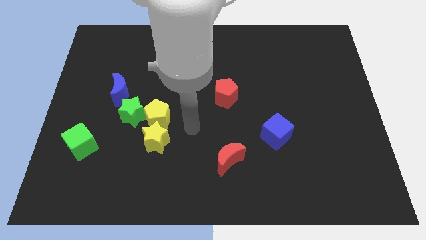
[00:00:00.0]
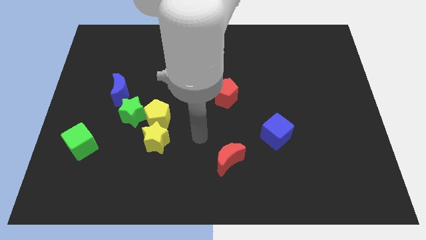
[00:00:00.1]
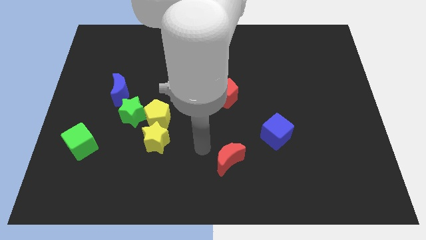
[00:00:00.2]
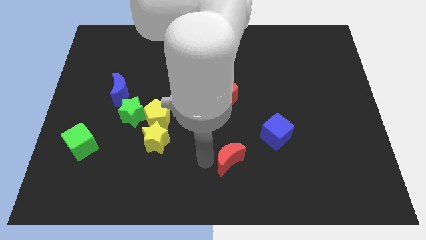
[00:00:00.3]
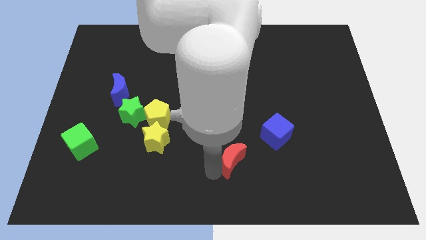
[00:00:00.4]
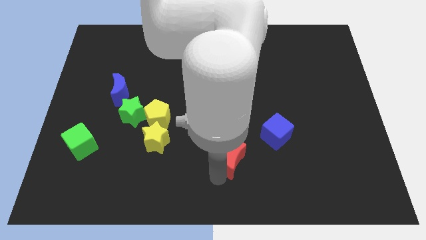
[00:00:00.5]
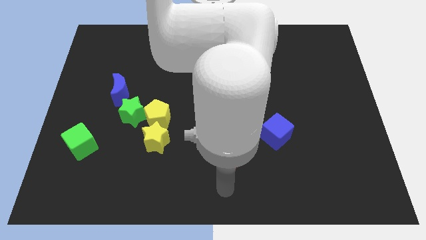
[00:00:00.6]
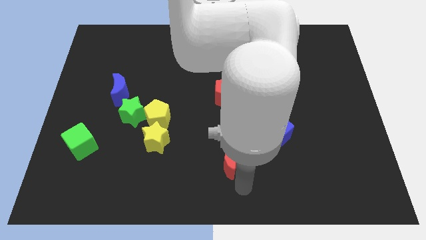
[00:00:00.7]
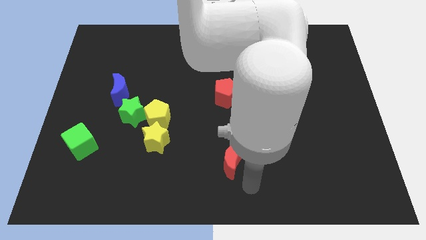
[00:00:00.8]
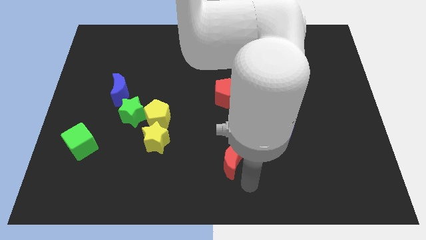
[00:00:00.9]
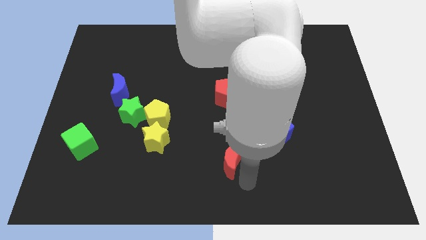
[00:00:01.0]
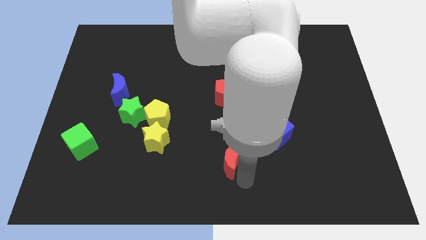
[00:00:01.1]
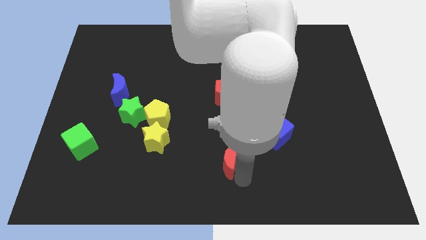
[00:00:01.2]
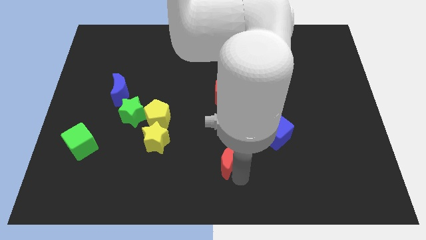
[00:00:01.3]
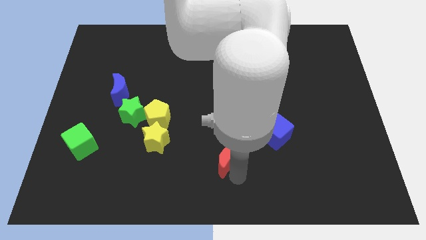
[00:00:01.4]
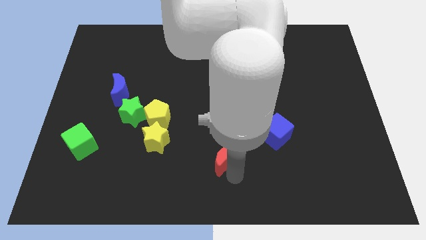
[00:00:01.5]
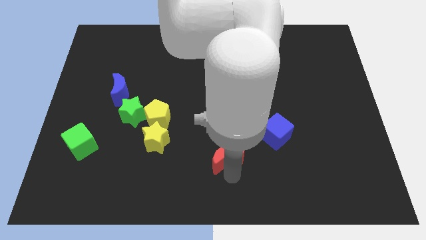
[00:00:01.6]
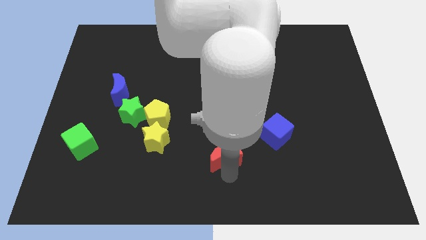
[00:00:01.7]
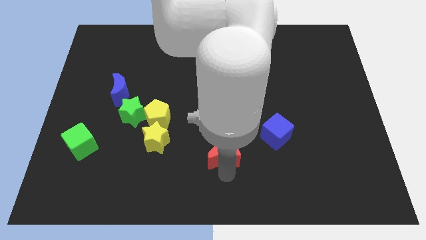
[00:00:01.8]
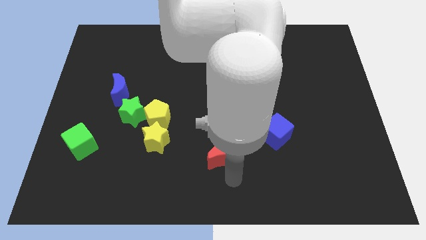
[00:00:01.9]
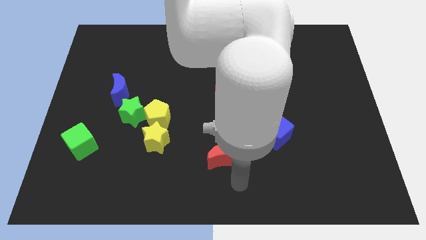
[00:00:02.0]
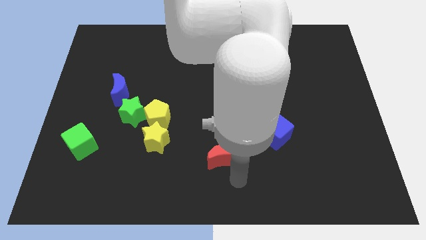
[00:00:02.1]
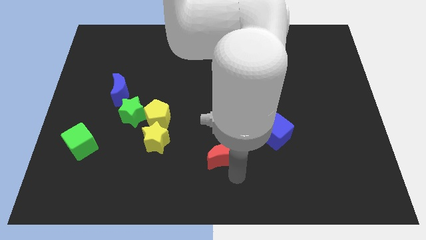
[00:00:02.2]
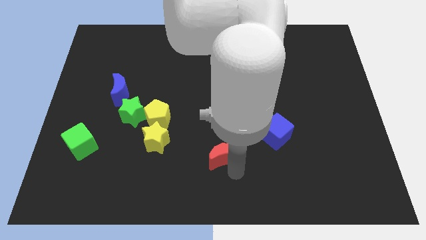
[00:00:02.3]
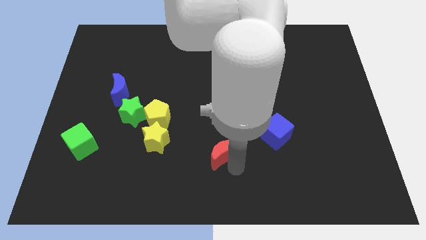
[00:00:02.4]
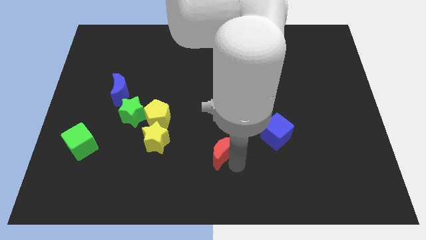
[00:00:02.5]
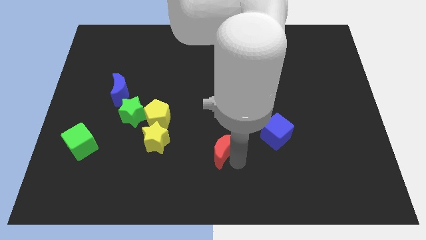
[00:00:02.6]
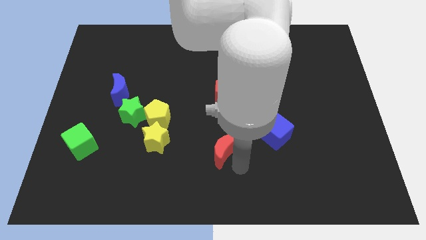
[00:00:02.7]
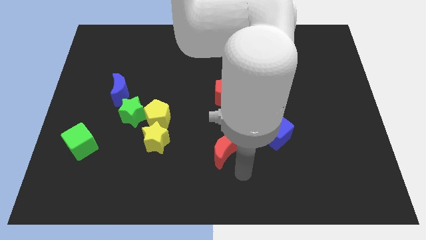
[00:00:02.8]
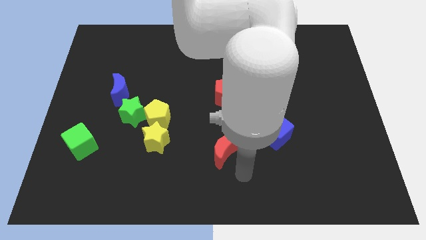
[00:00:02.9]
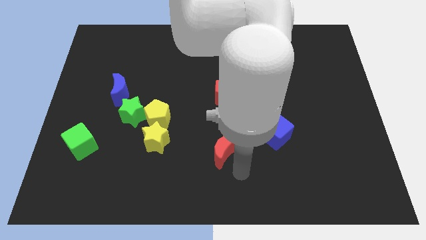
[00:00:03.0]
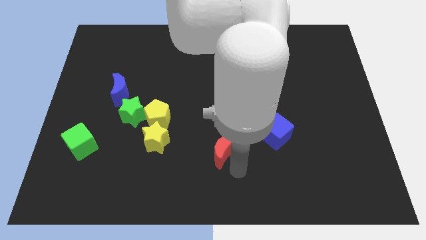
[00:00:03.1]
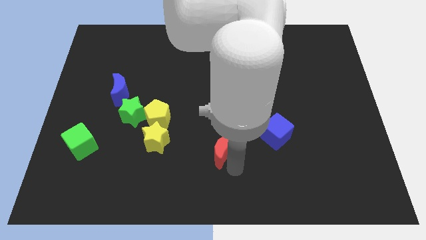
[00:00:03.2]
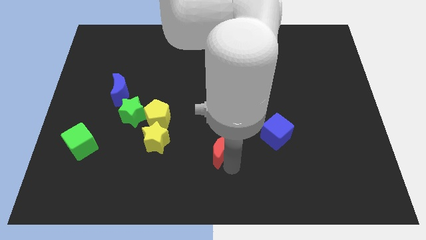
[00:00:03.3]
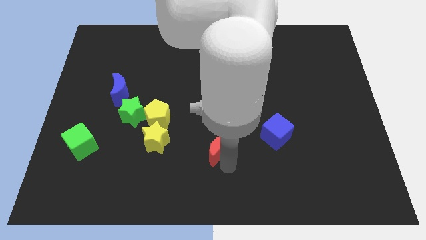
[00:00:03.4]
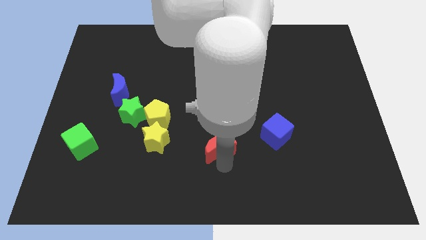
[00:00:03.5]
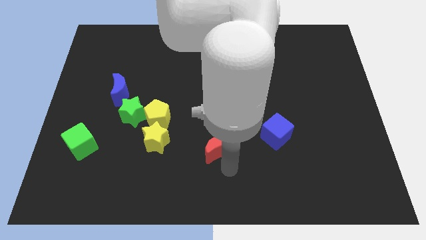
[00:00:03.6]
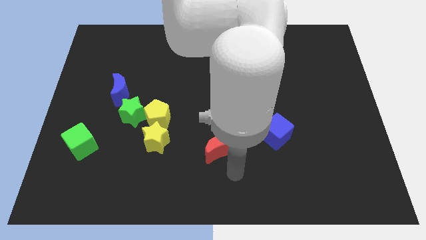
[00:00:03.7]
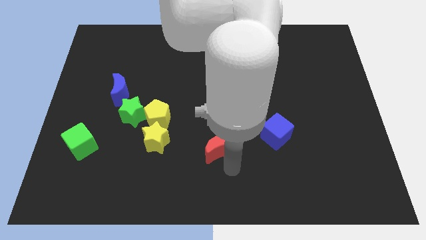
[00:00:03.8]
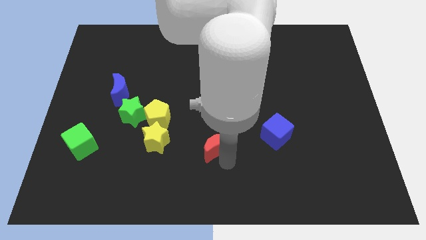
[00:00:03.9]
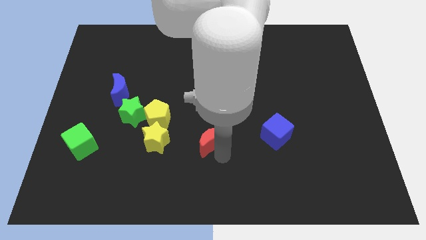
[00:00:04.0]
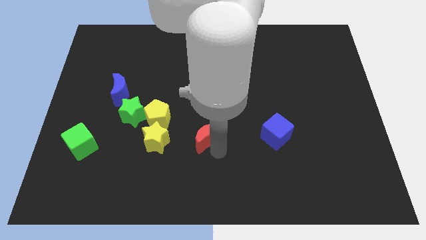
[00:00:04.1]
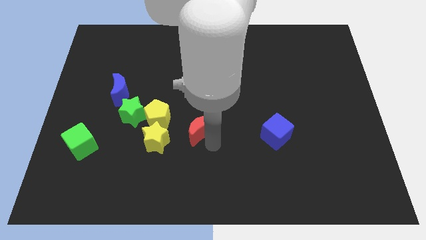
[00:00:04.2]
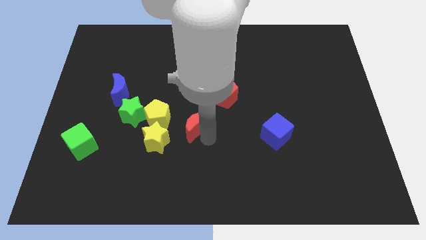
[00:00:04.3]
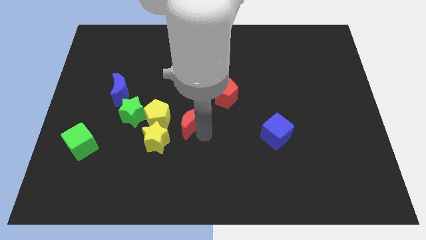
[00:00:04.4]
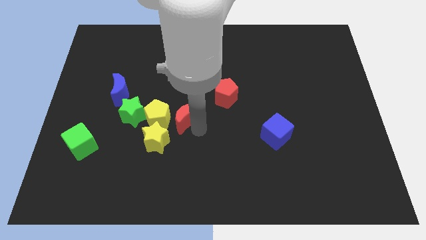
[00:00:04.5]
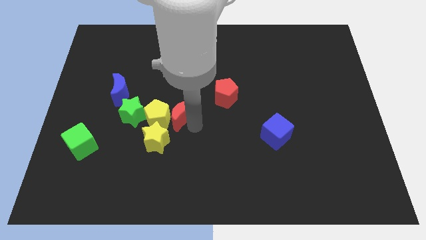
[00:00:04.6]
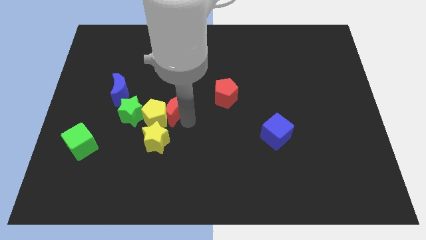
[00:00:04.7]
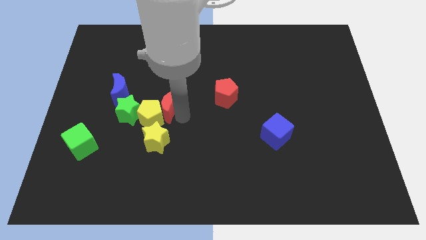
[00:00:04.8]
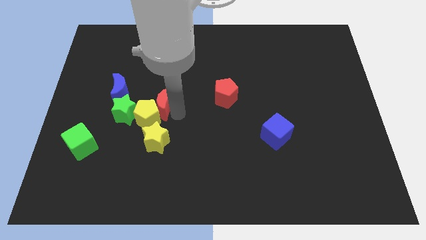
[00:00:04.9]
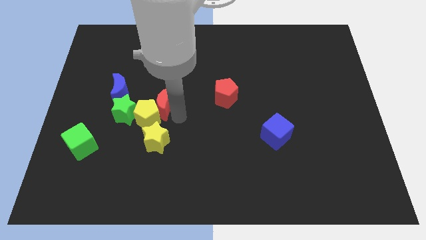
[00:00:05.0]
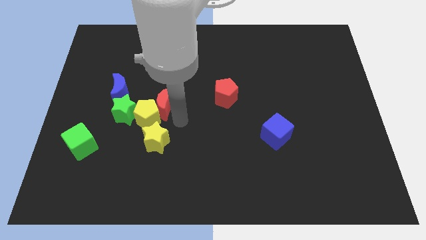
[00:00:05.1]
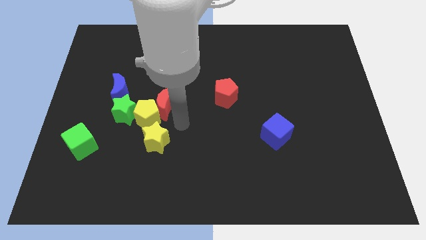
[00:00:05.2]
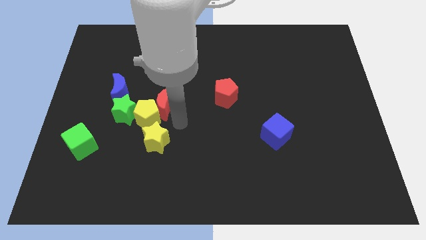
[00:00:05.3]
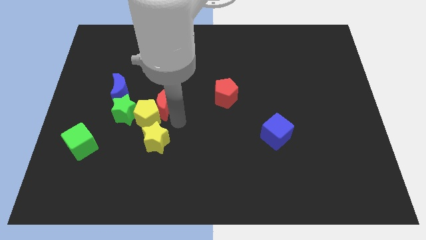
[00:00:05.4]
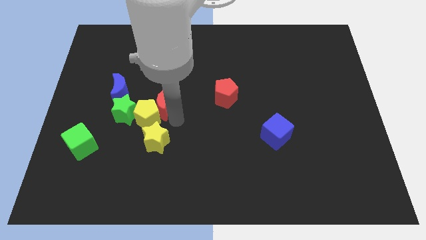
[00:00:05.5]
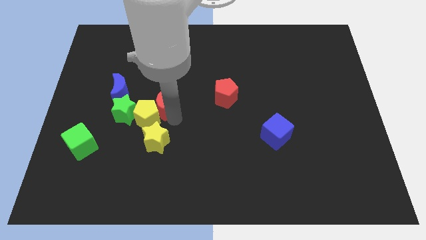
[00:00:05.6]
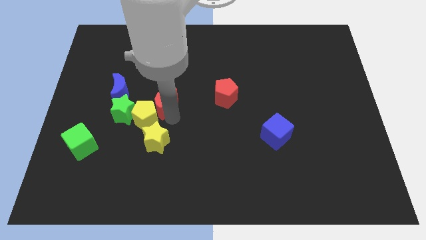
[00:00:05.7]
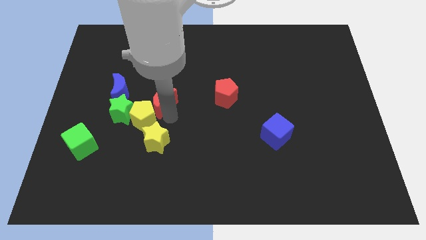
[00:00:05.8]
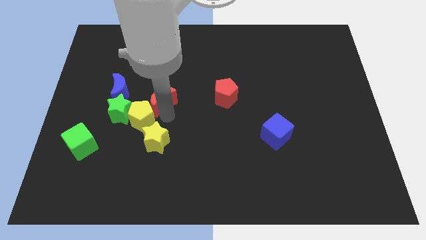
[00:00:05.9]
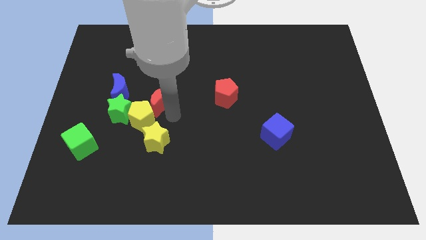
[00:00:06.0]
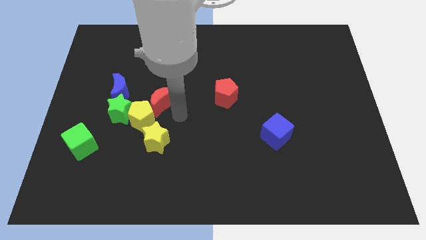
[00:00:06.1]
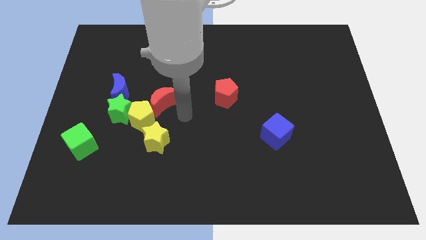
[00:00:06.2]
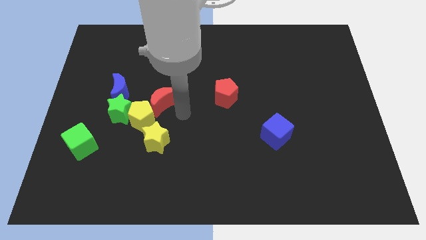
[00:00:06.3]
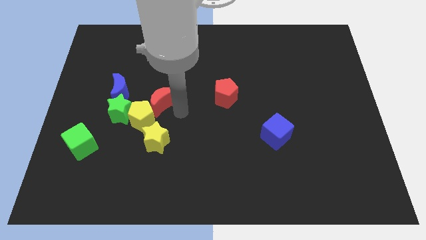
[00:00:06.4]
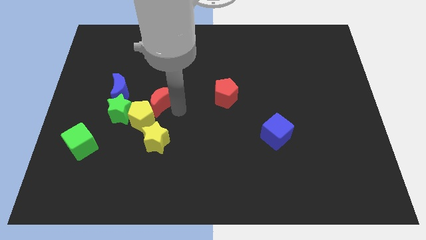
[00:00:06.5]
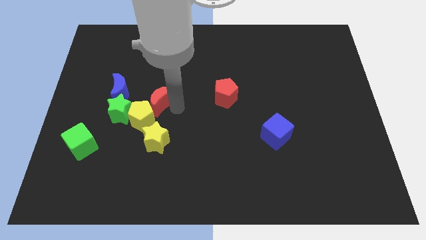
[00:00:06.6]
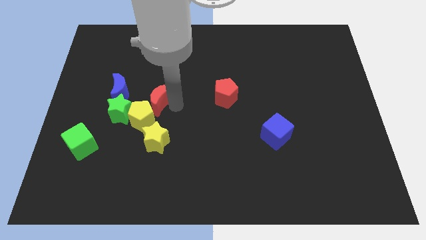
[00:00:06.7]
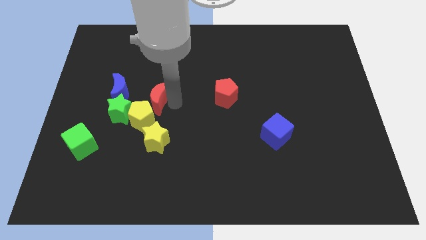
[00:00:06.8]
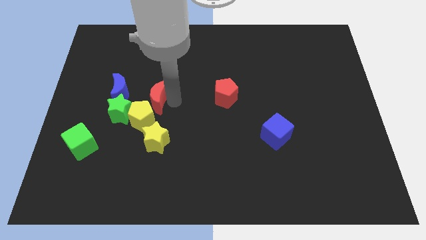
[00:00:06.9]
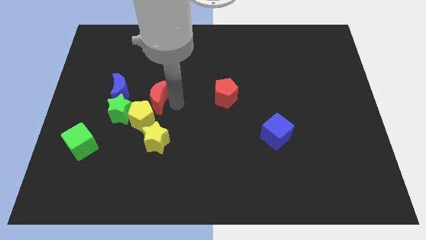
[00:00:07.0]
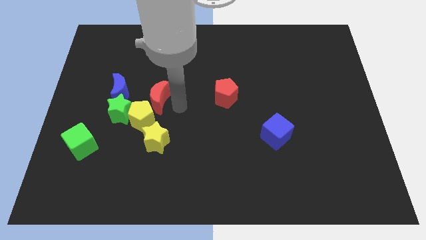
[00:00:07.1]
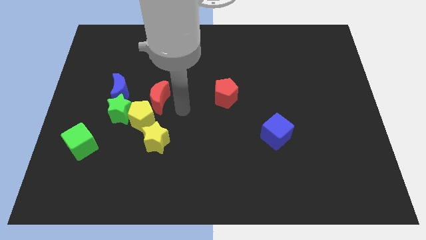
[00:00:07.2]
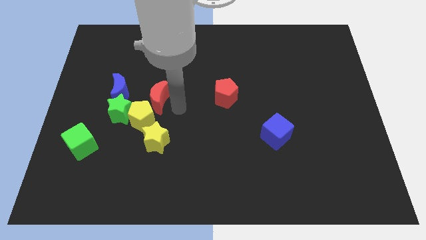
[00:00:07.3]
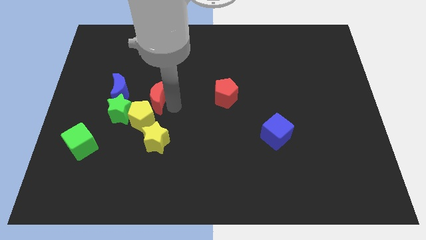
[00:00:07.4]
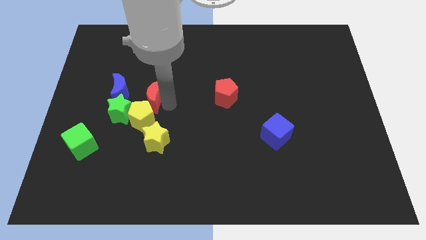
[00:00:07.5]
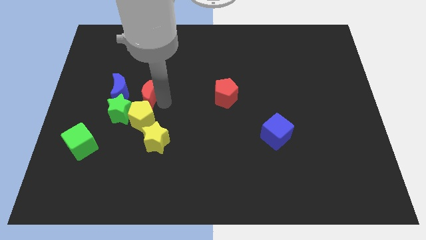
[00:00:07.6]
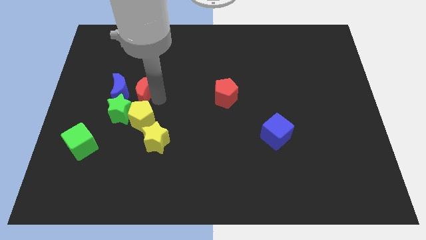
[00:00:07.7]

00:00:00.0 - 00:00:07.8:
push the red moon close to the blue moon
